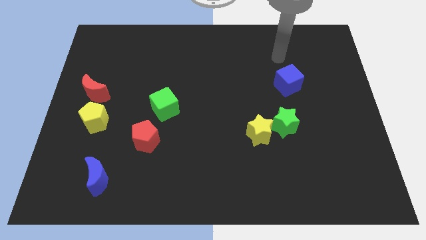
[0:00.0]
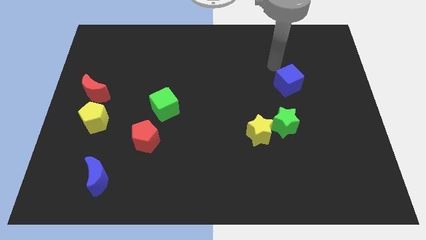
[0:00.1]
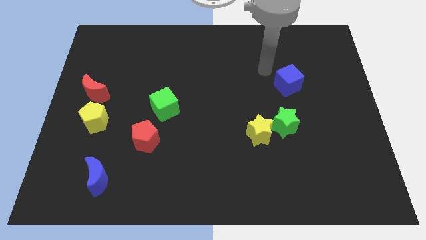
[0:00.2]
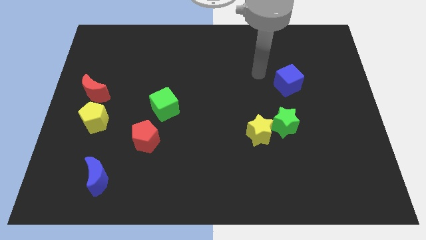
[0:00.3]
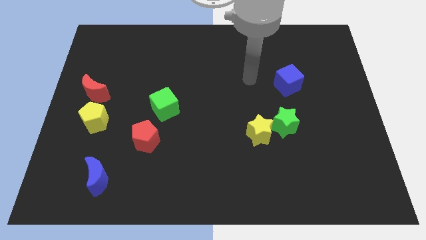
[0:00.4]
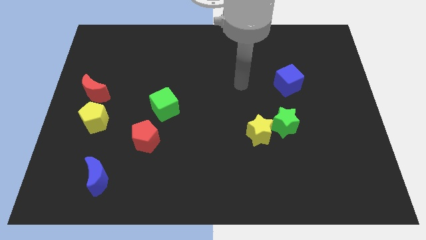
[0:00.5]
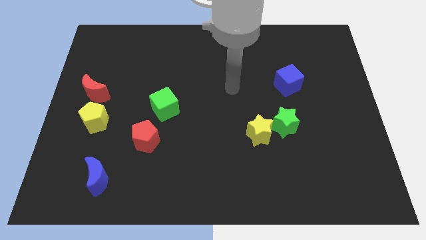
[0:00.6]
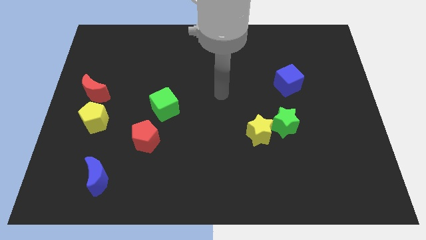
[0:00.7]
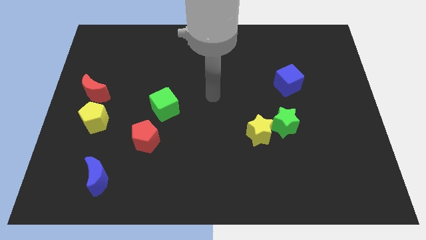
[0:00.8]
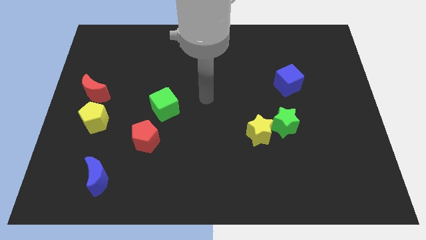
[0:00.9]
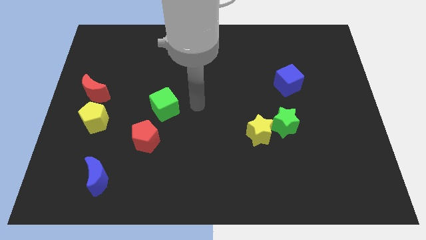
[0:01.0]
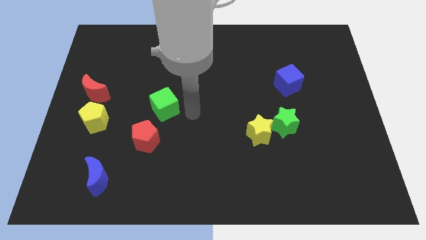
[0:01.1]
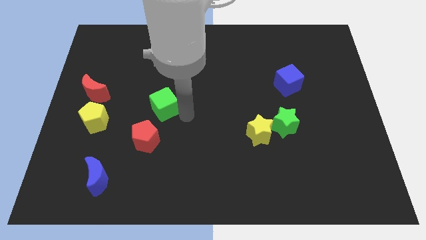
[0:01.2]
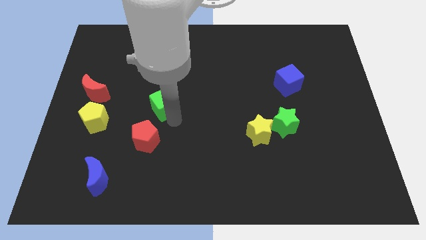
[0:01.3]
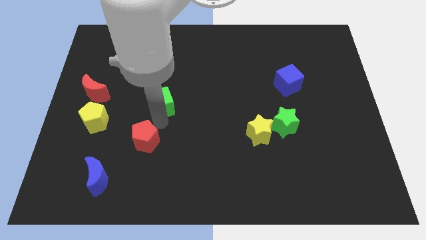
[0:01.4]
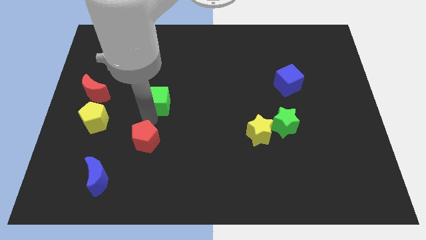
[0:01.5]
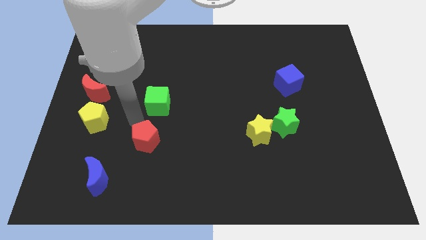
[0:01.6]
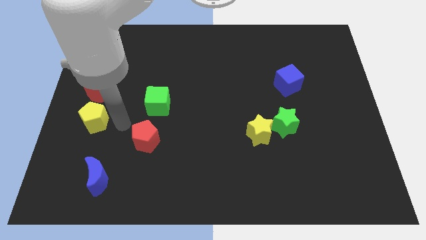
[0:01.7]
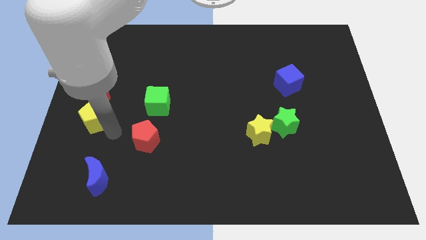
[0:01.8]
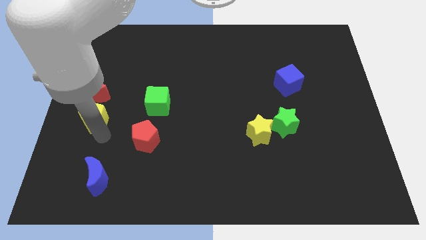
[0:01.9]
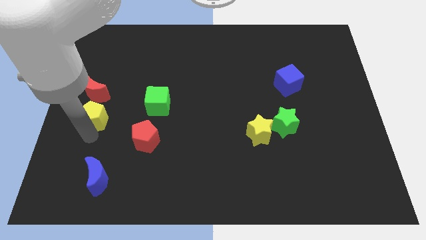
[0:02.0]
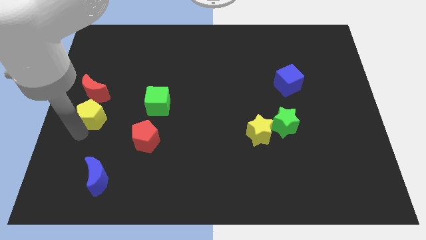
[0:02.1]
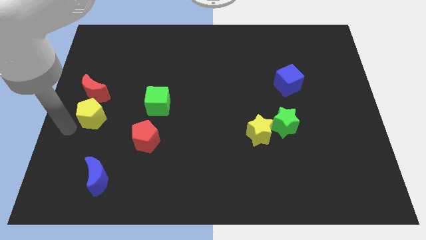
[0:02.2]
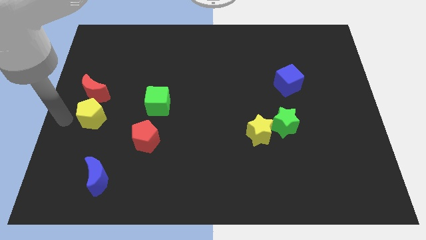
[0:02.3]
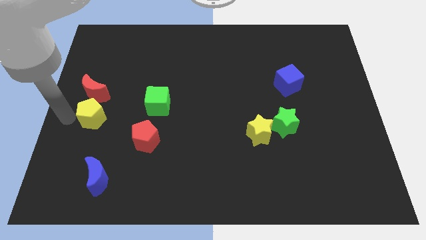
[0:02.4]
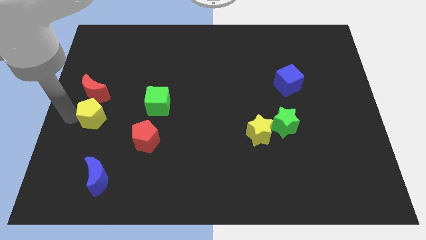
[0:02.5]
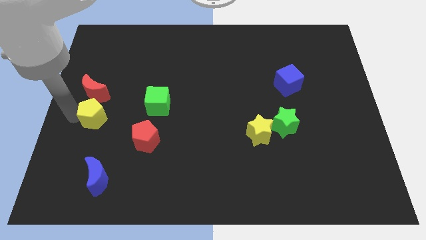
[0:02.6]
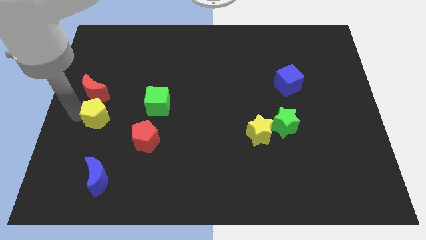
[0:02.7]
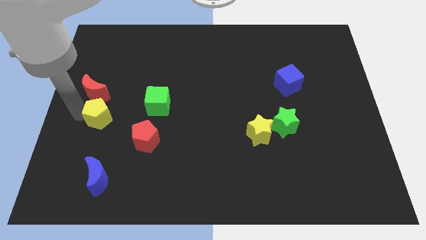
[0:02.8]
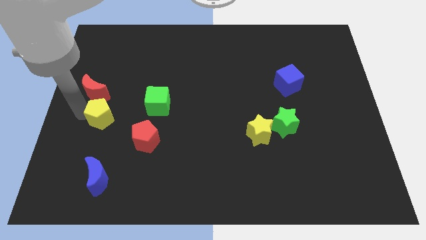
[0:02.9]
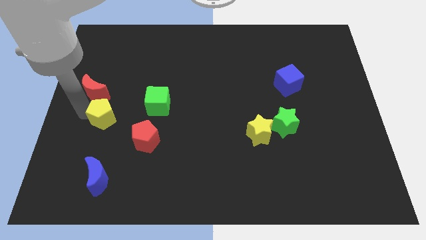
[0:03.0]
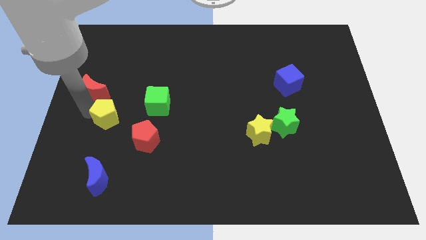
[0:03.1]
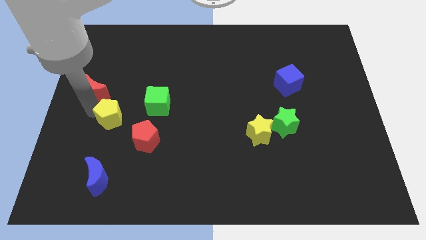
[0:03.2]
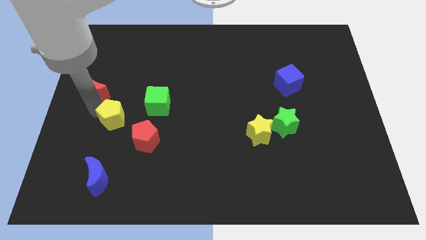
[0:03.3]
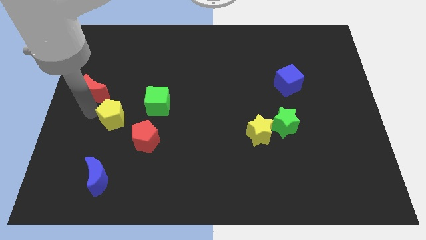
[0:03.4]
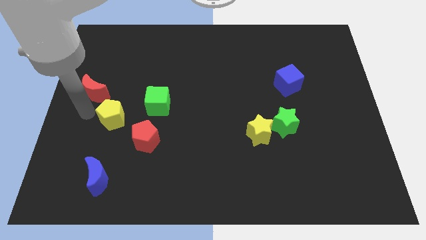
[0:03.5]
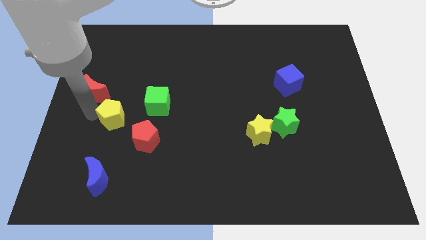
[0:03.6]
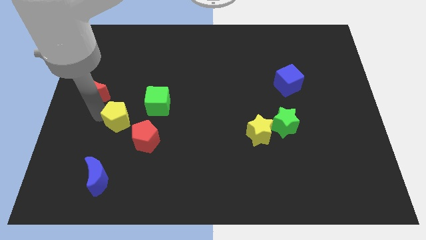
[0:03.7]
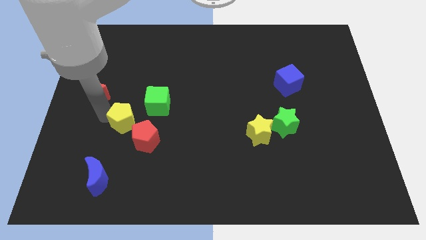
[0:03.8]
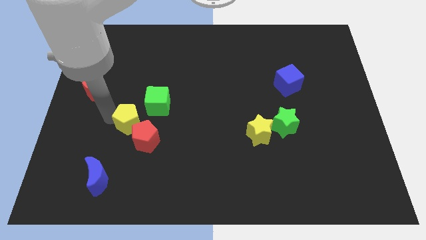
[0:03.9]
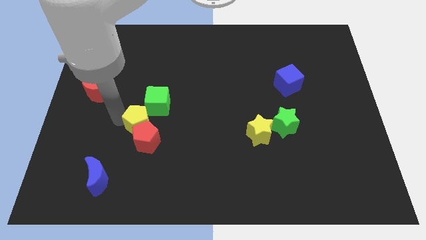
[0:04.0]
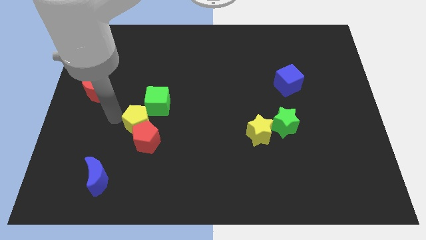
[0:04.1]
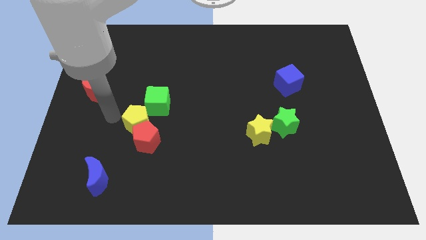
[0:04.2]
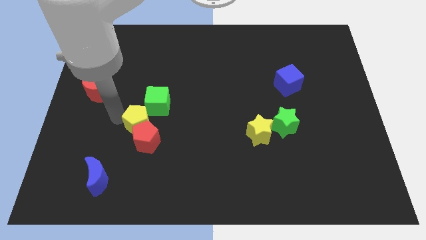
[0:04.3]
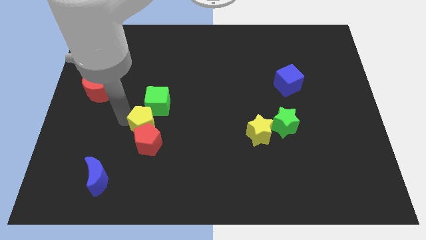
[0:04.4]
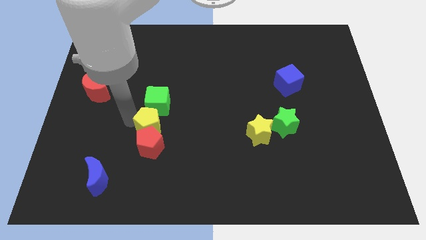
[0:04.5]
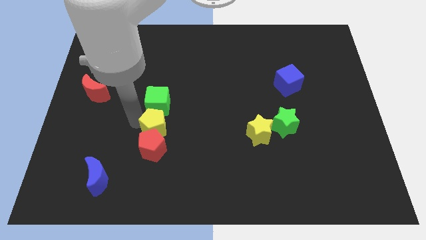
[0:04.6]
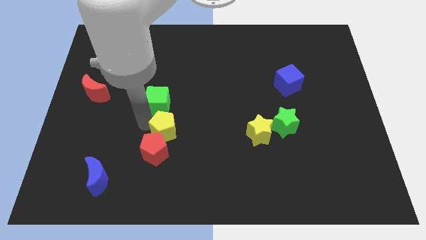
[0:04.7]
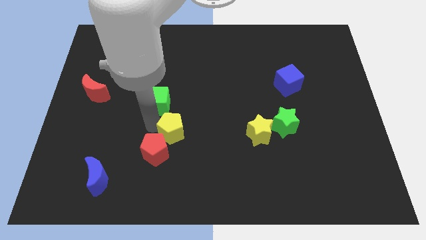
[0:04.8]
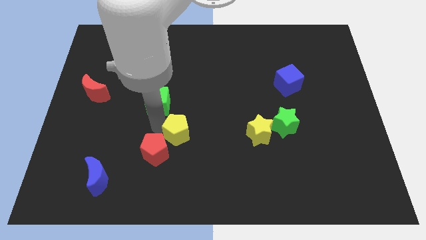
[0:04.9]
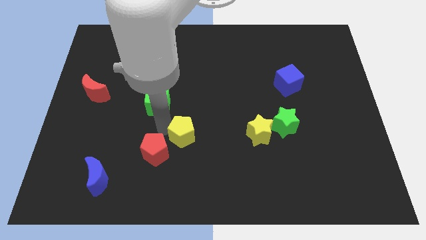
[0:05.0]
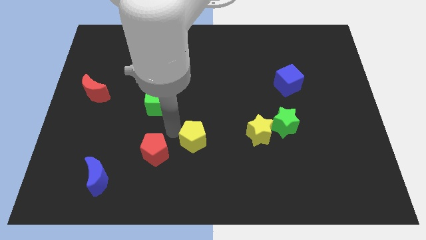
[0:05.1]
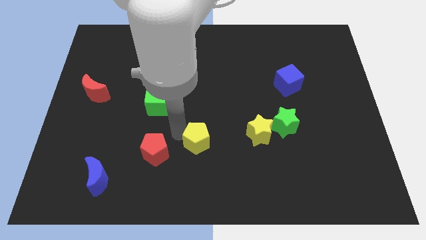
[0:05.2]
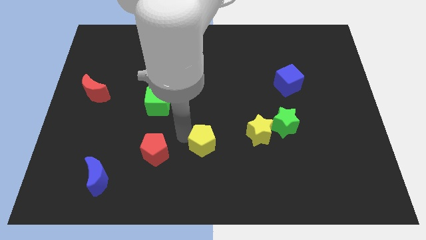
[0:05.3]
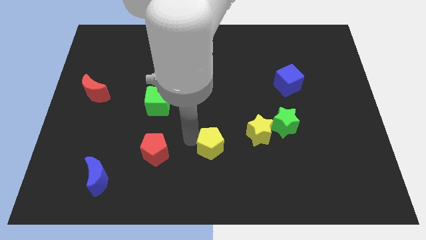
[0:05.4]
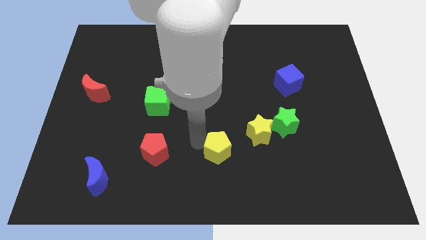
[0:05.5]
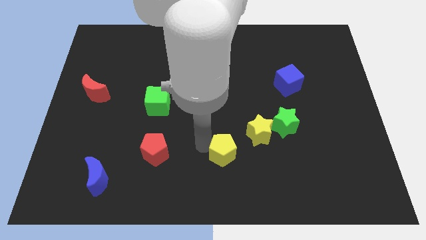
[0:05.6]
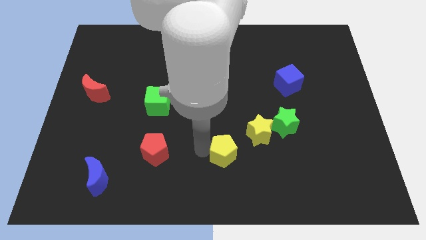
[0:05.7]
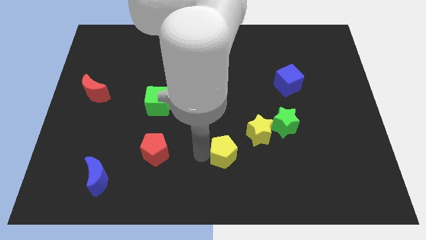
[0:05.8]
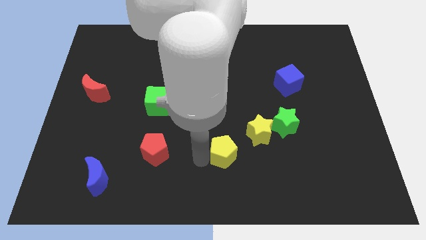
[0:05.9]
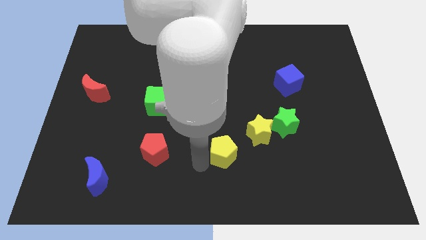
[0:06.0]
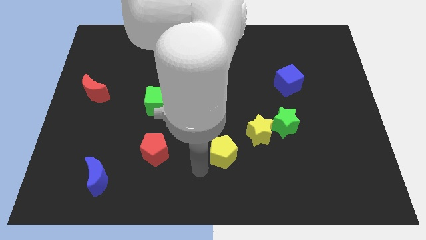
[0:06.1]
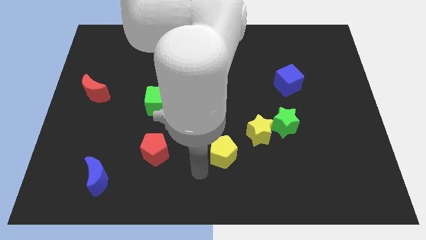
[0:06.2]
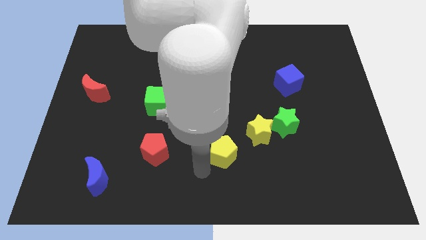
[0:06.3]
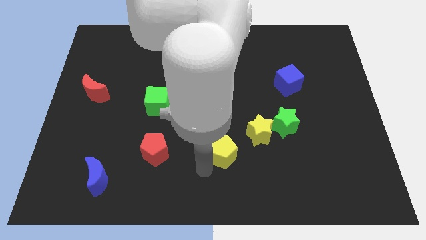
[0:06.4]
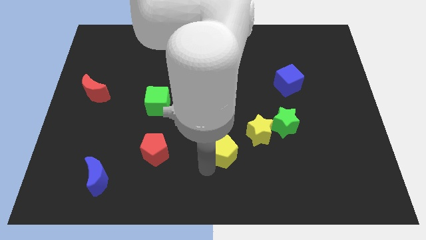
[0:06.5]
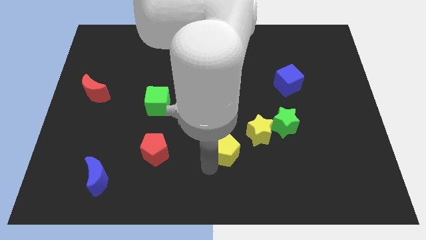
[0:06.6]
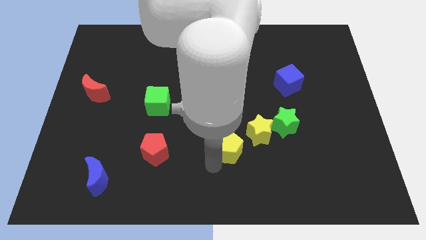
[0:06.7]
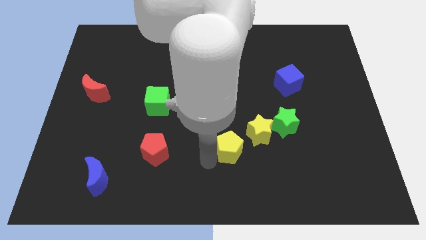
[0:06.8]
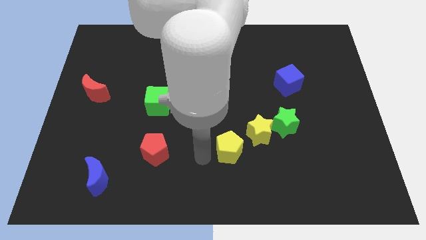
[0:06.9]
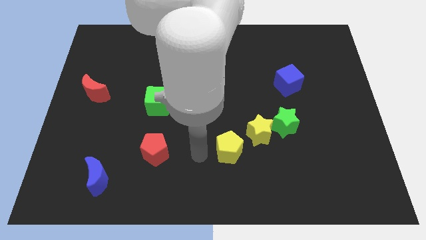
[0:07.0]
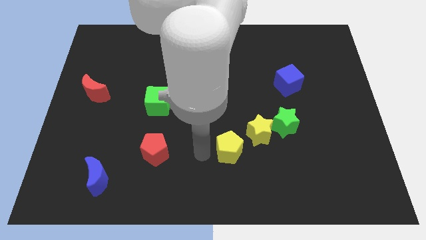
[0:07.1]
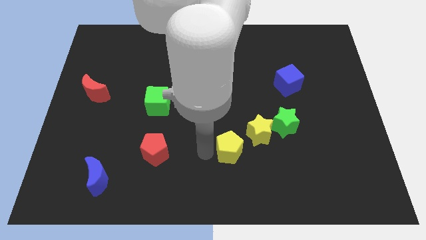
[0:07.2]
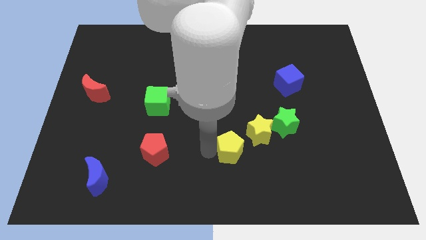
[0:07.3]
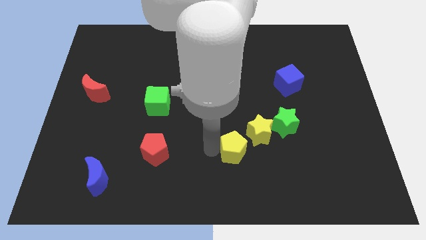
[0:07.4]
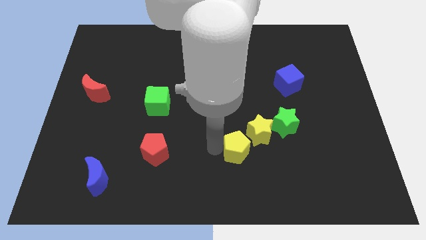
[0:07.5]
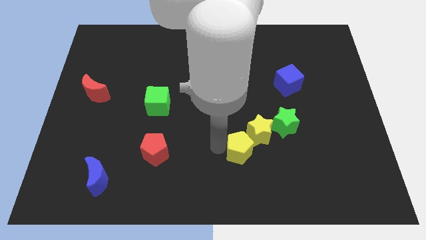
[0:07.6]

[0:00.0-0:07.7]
push the yellow pentagon to the bottom left of the green star

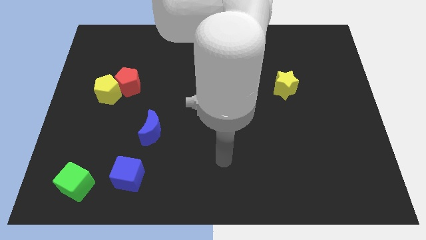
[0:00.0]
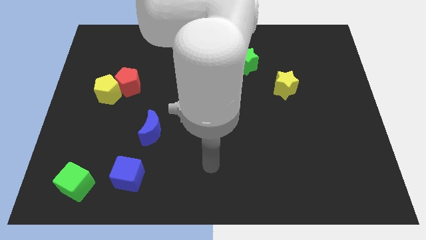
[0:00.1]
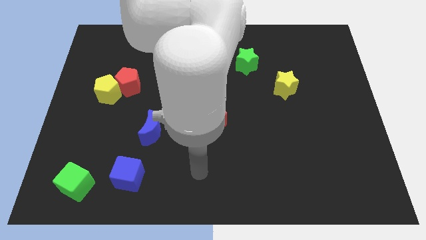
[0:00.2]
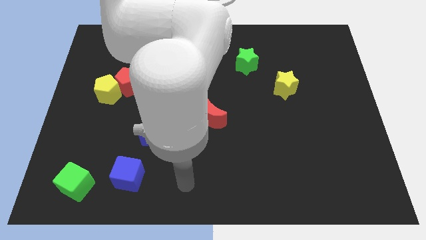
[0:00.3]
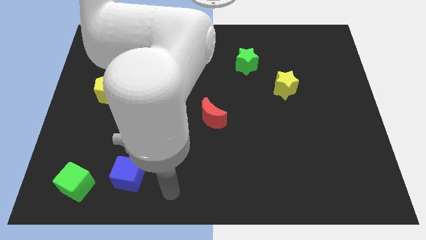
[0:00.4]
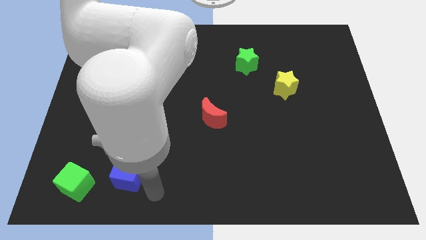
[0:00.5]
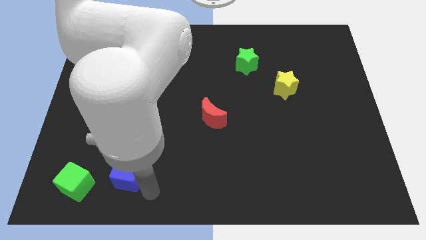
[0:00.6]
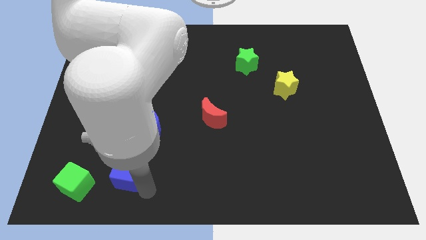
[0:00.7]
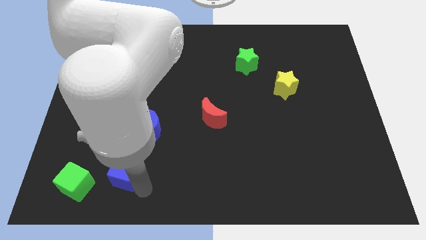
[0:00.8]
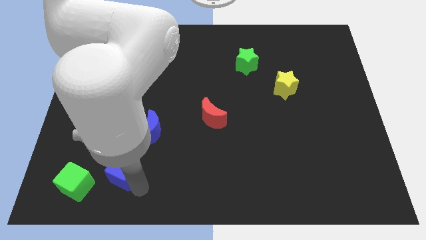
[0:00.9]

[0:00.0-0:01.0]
put the blue cube to the top right of the green cube
